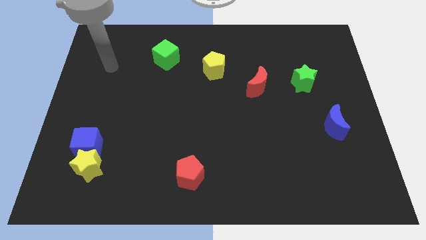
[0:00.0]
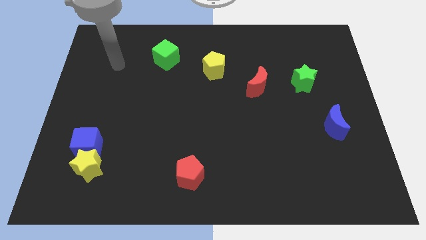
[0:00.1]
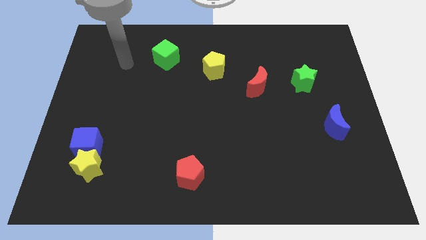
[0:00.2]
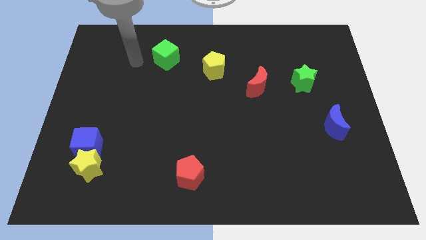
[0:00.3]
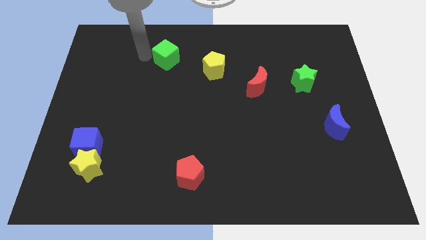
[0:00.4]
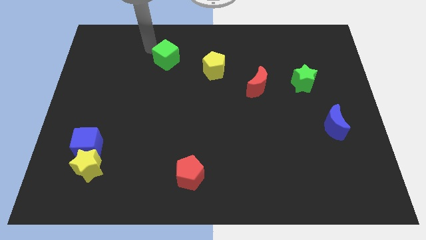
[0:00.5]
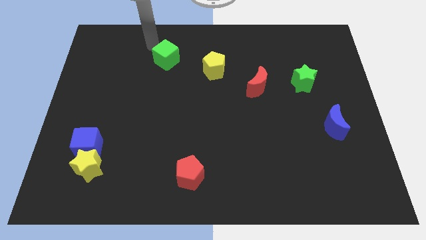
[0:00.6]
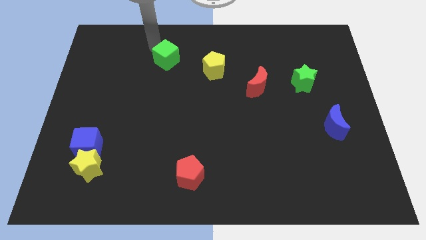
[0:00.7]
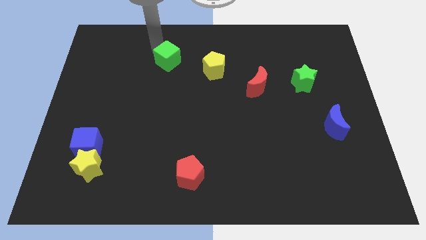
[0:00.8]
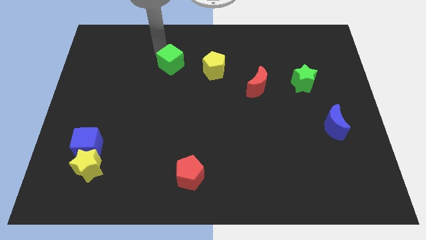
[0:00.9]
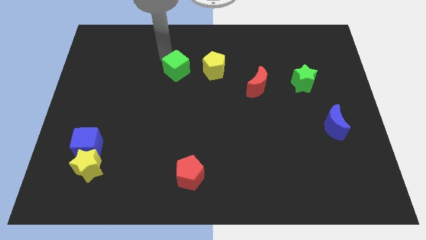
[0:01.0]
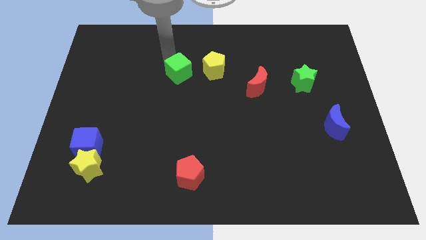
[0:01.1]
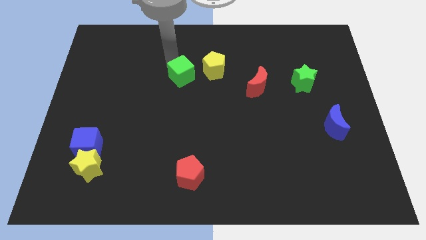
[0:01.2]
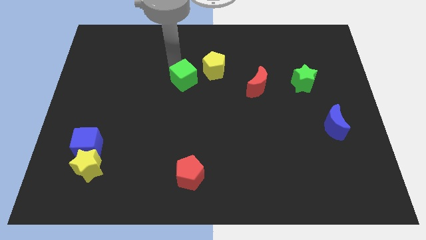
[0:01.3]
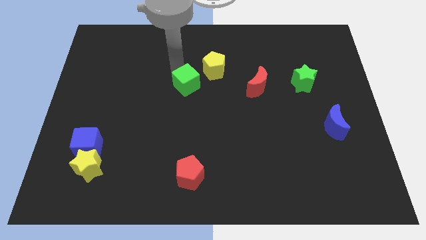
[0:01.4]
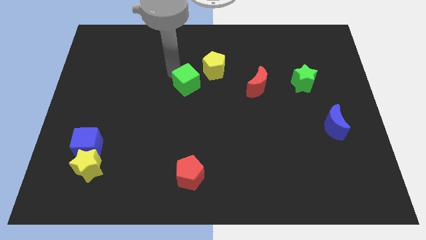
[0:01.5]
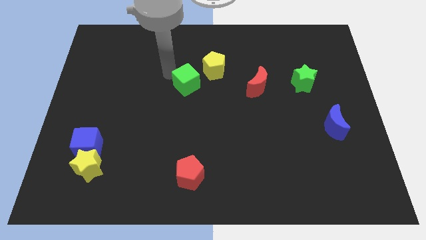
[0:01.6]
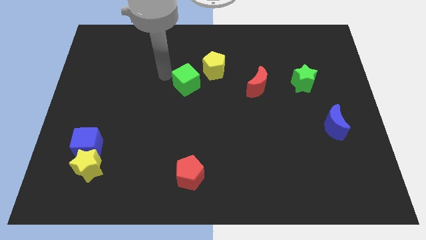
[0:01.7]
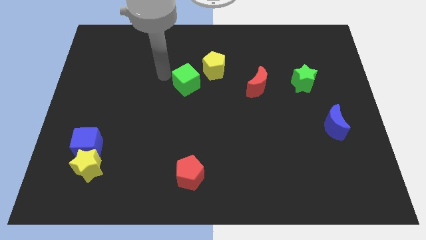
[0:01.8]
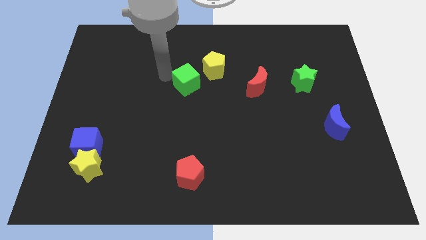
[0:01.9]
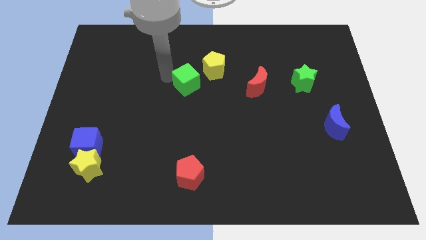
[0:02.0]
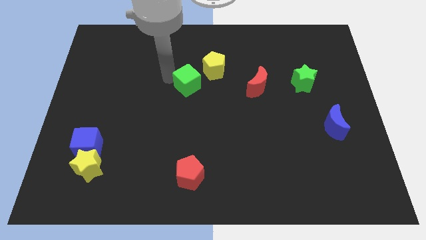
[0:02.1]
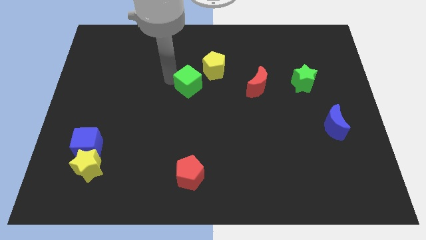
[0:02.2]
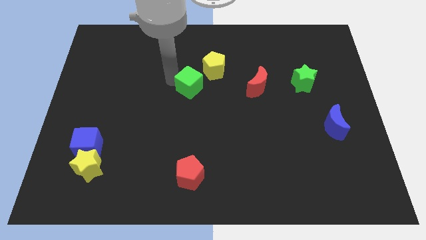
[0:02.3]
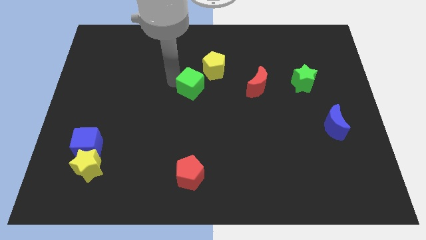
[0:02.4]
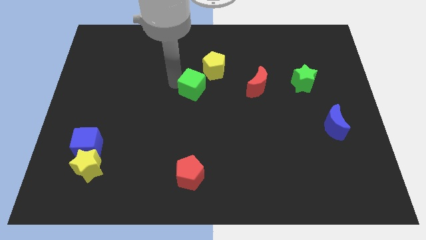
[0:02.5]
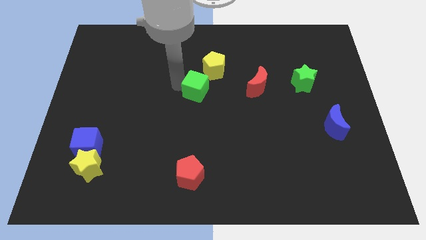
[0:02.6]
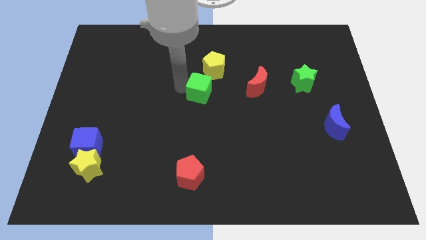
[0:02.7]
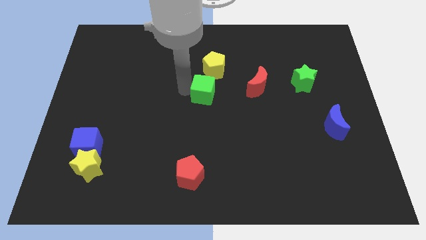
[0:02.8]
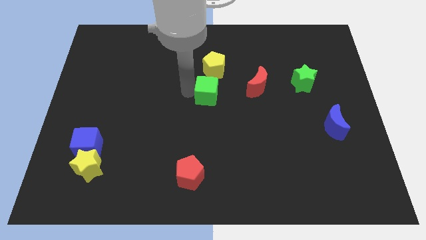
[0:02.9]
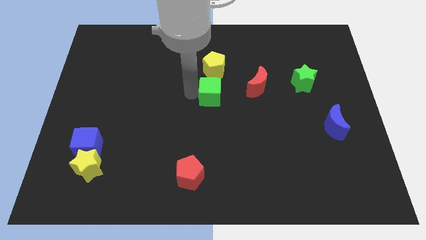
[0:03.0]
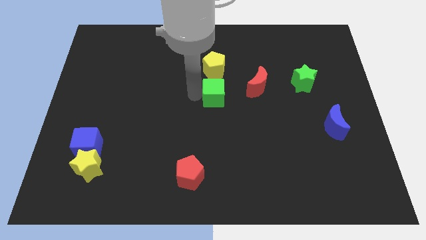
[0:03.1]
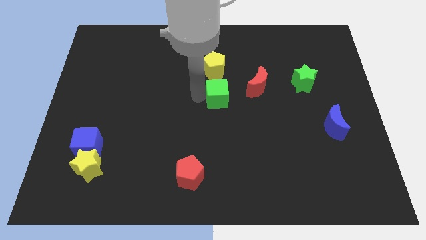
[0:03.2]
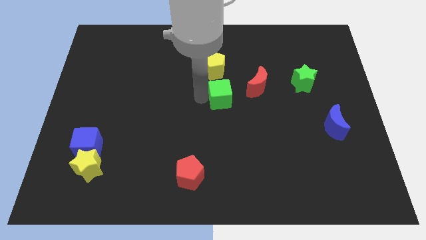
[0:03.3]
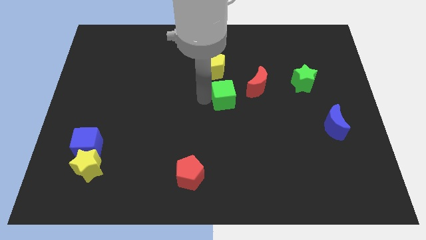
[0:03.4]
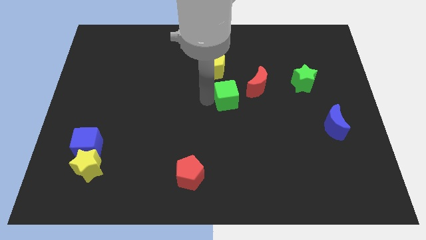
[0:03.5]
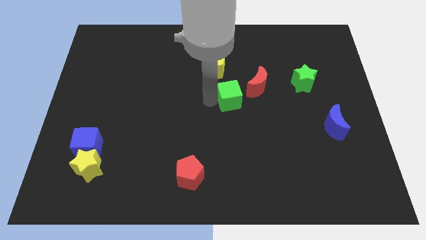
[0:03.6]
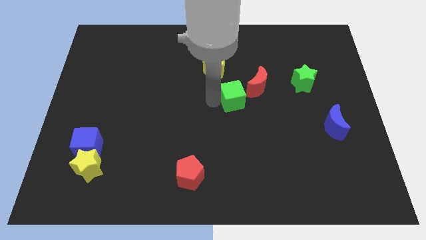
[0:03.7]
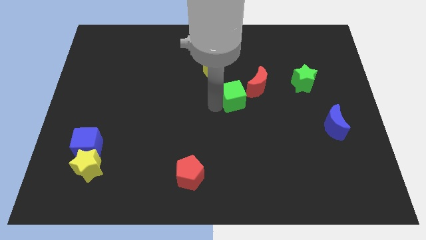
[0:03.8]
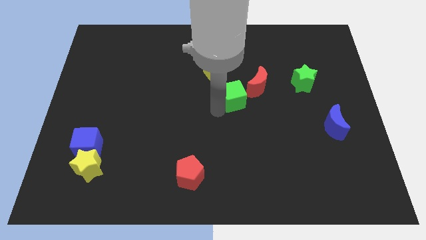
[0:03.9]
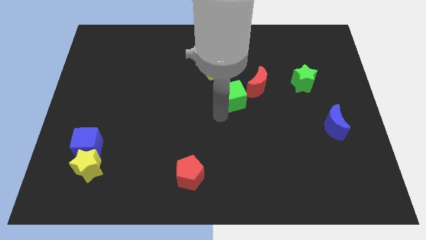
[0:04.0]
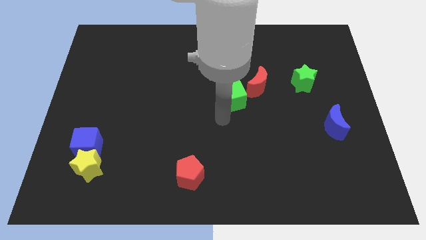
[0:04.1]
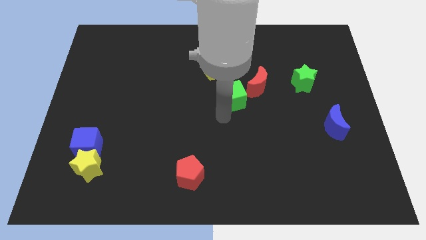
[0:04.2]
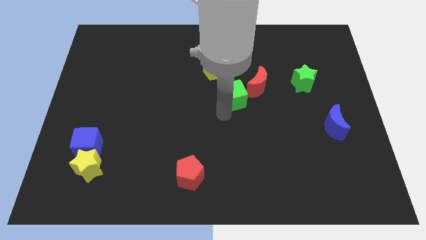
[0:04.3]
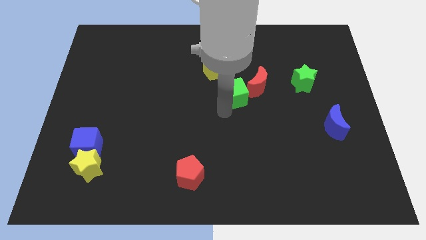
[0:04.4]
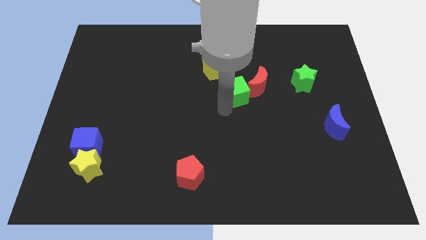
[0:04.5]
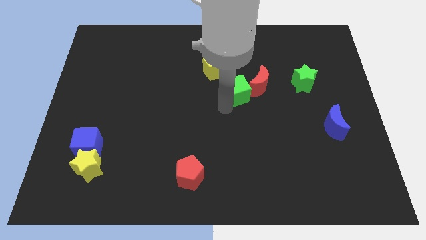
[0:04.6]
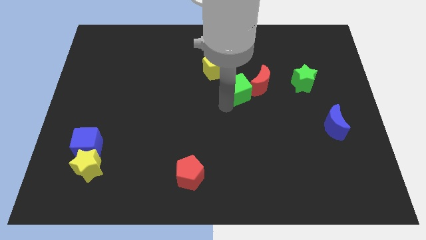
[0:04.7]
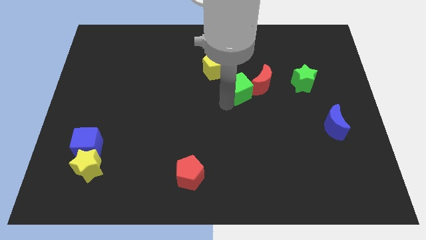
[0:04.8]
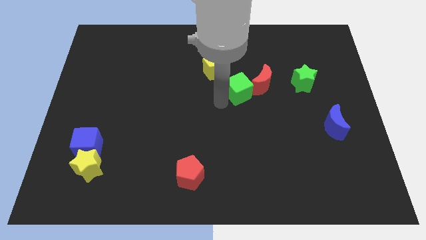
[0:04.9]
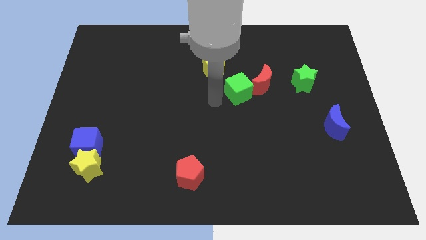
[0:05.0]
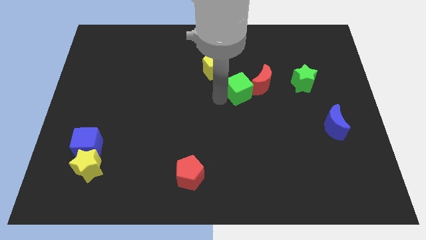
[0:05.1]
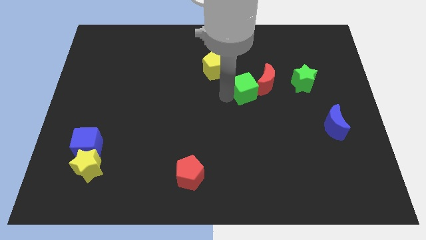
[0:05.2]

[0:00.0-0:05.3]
put the green cube just left of the green star

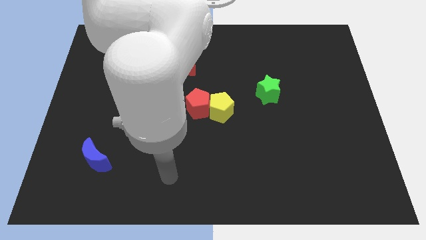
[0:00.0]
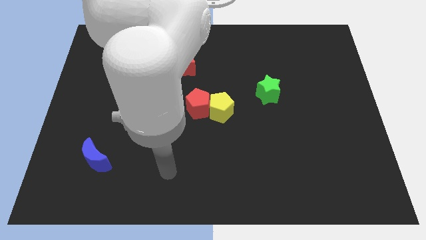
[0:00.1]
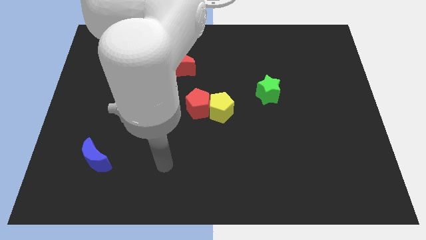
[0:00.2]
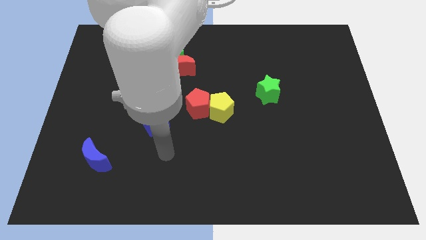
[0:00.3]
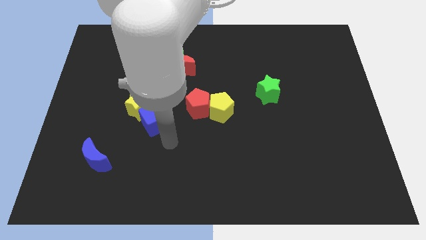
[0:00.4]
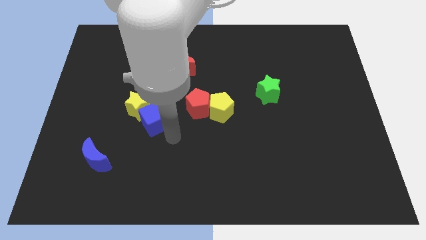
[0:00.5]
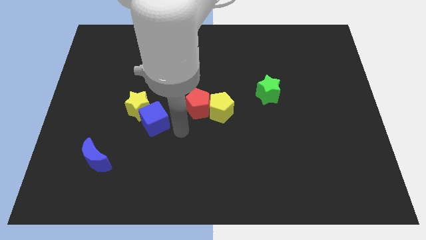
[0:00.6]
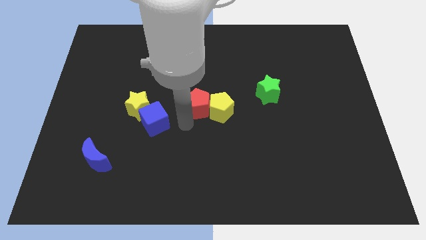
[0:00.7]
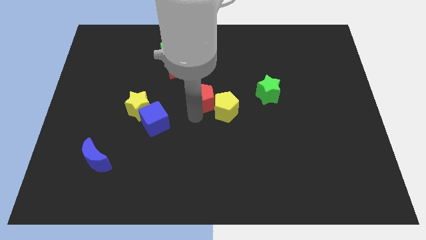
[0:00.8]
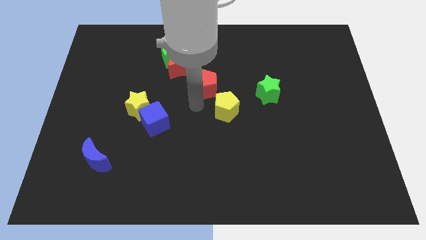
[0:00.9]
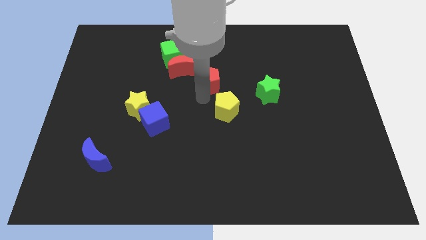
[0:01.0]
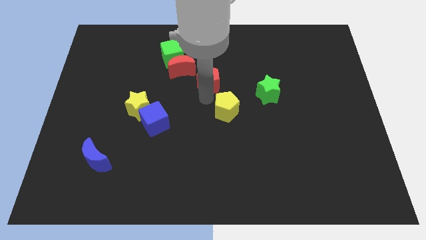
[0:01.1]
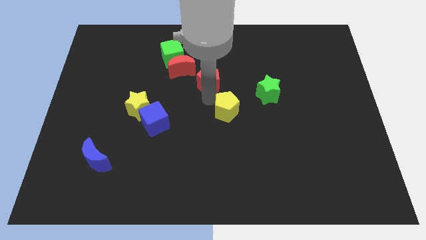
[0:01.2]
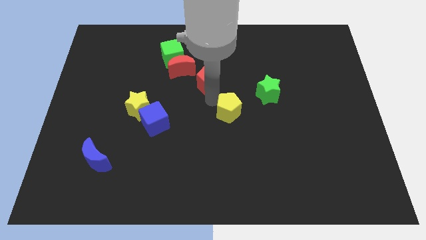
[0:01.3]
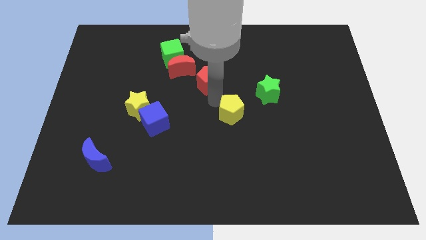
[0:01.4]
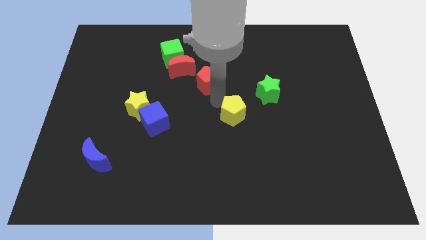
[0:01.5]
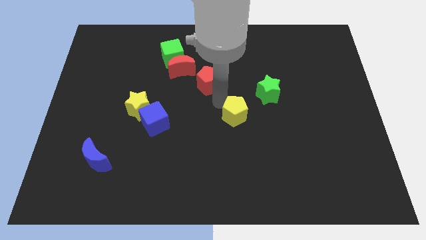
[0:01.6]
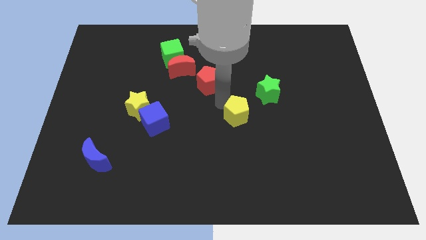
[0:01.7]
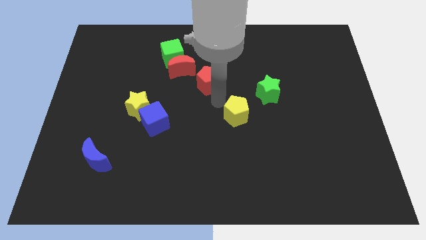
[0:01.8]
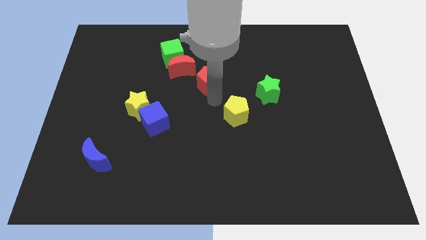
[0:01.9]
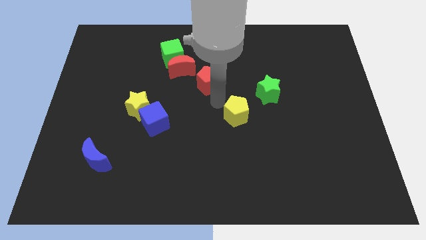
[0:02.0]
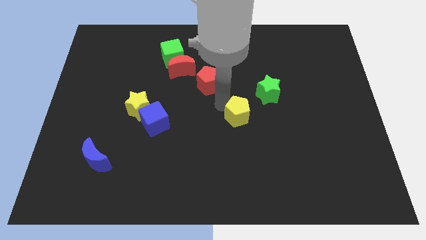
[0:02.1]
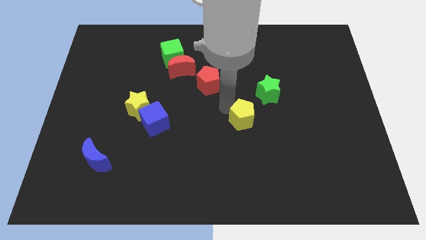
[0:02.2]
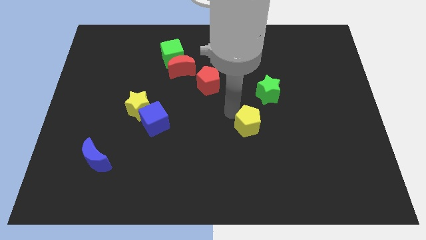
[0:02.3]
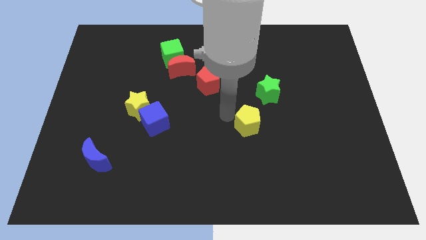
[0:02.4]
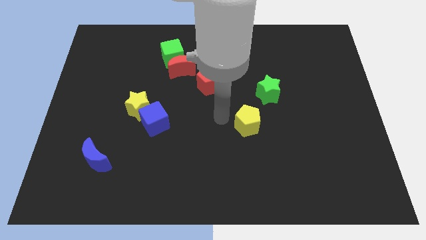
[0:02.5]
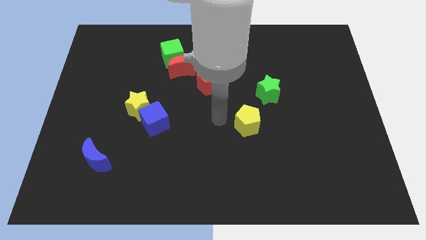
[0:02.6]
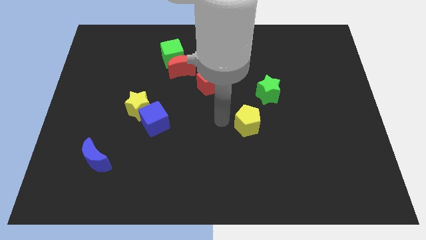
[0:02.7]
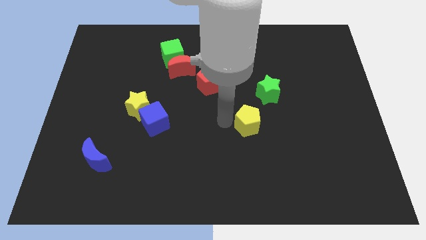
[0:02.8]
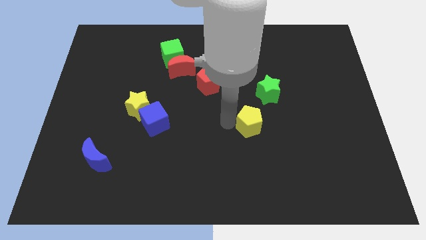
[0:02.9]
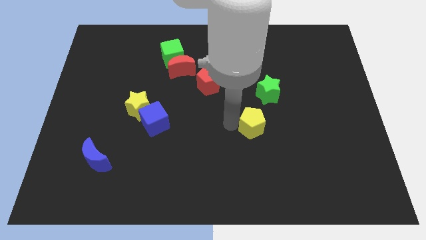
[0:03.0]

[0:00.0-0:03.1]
slide the yellow pentagon below the green star
